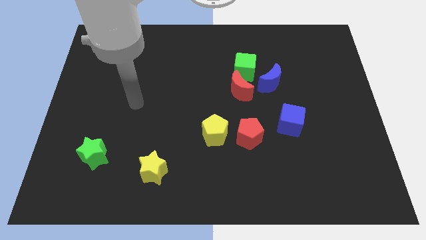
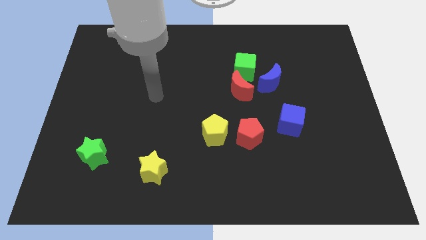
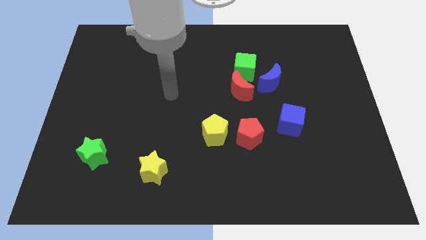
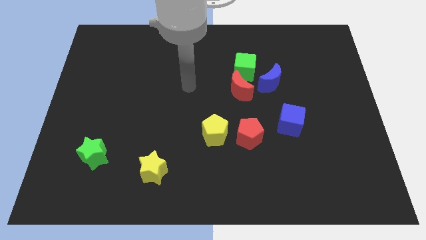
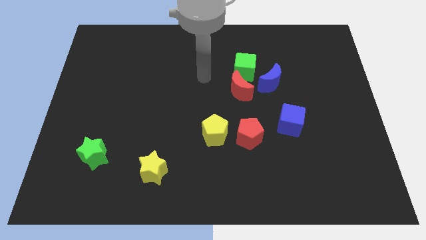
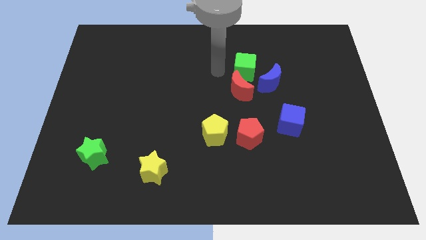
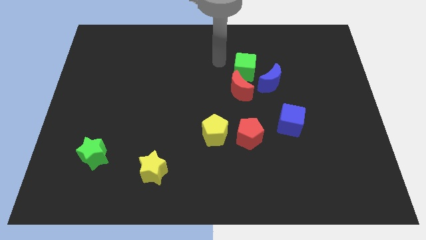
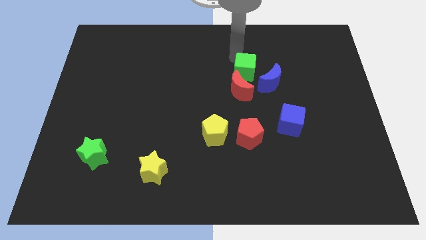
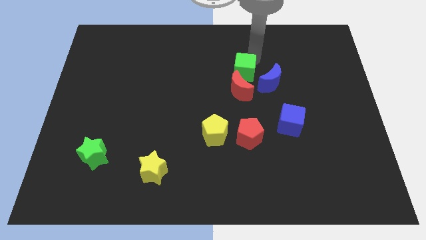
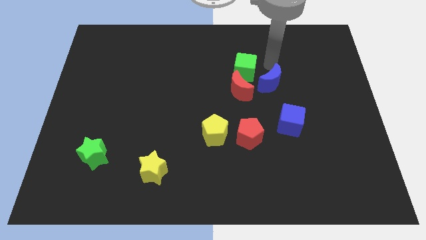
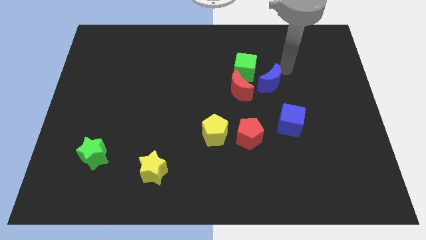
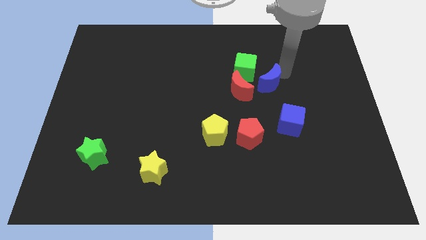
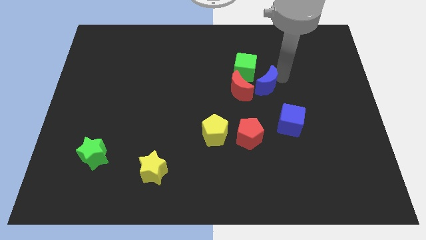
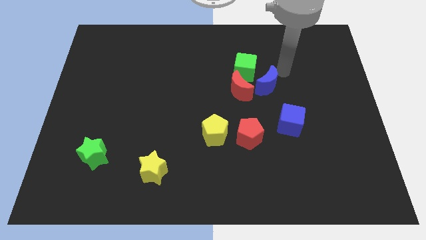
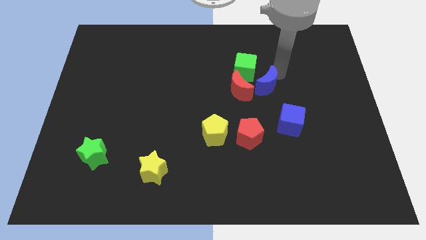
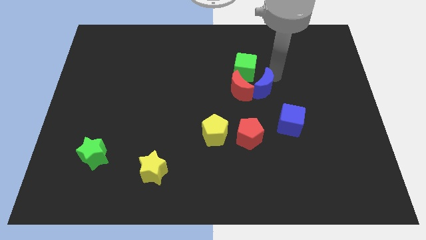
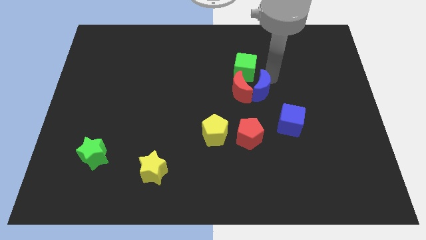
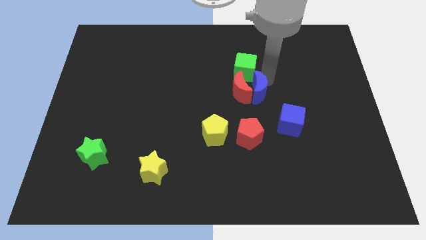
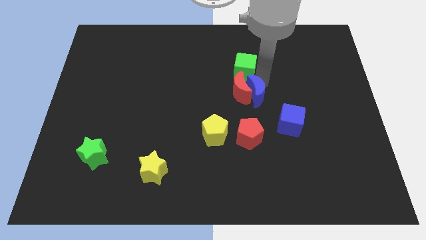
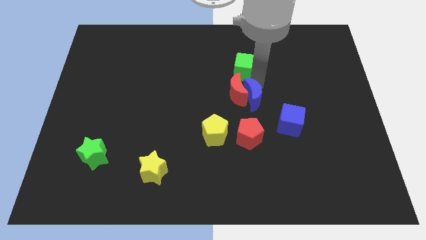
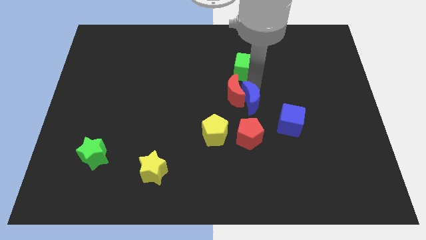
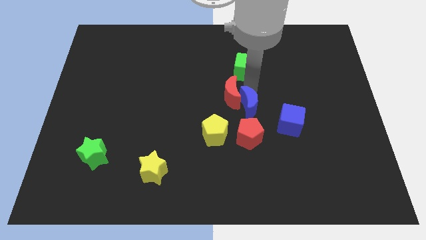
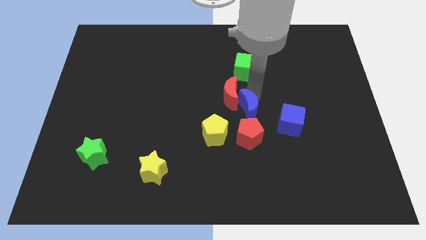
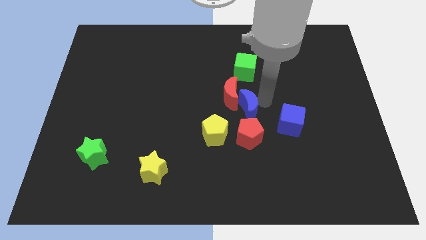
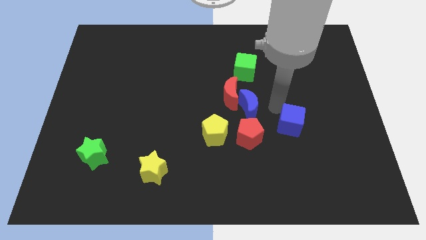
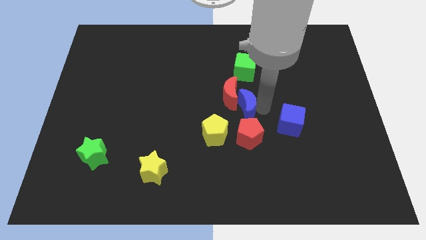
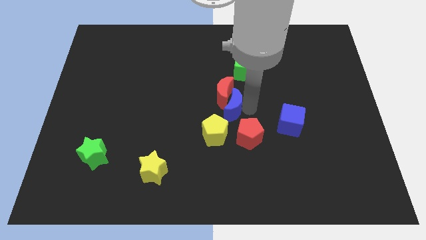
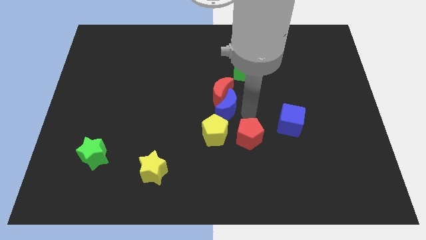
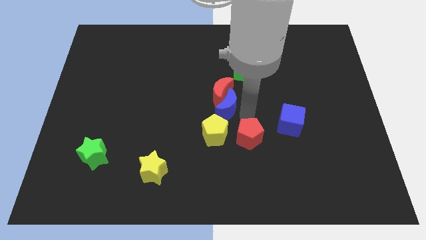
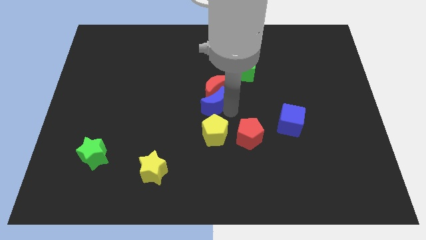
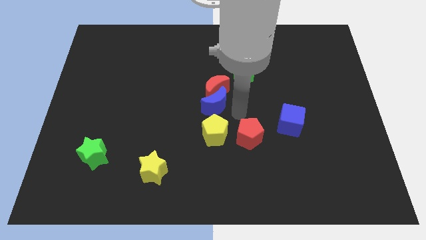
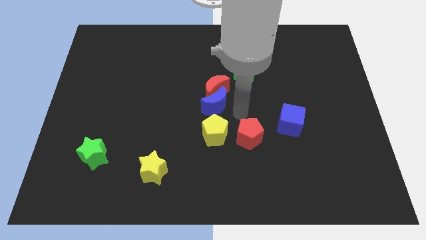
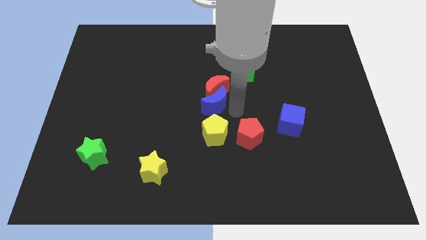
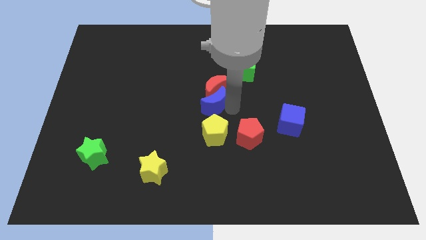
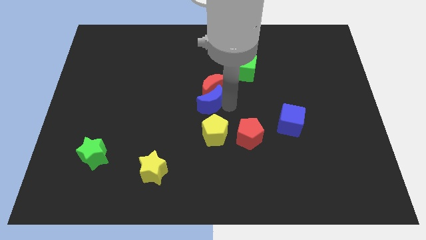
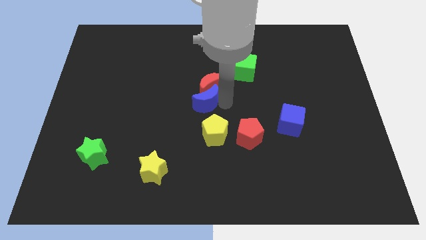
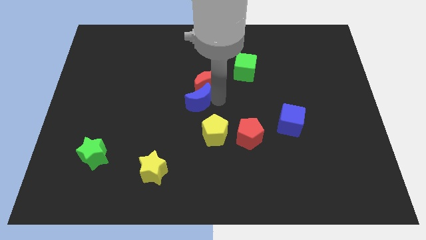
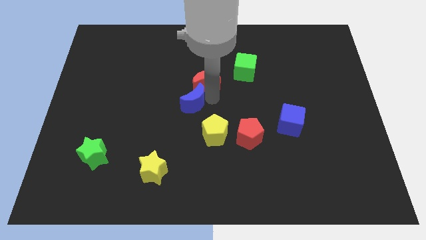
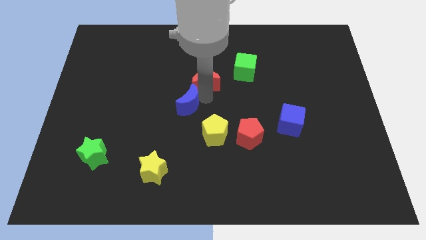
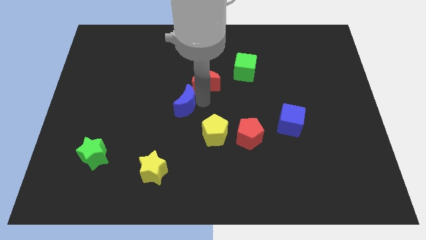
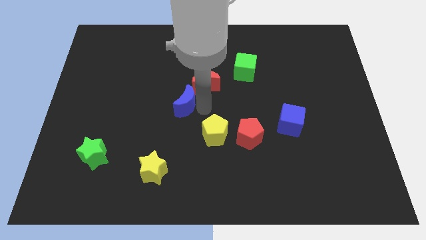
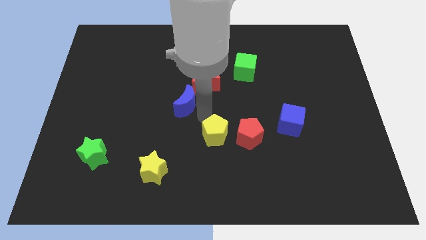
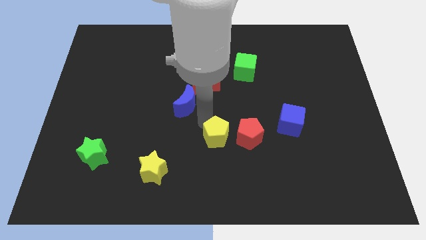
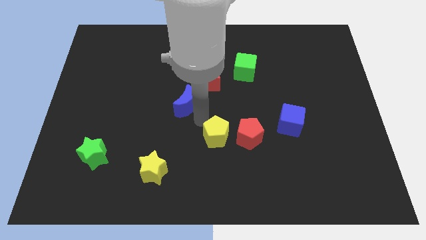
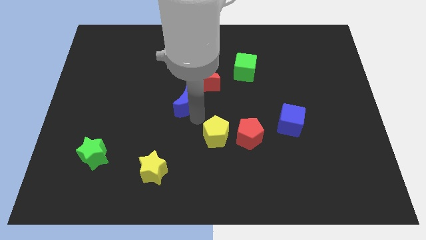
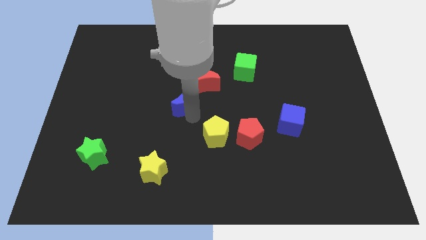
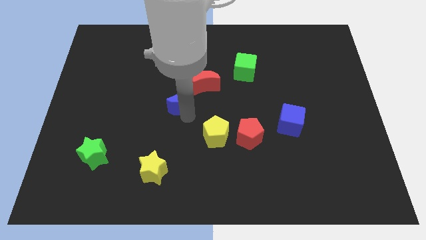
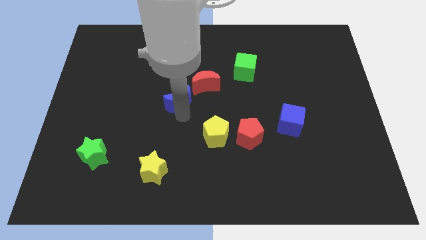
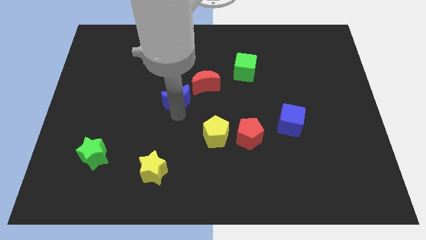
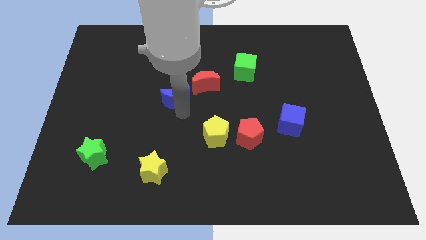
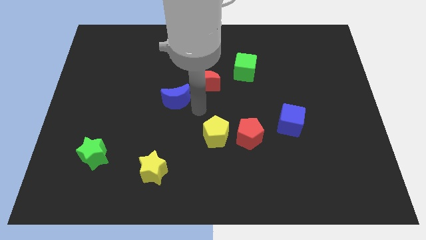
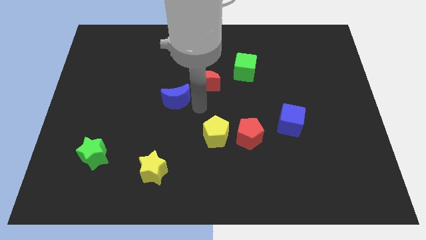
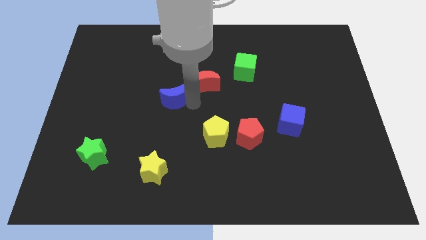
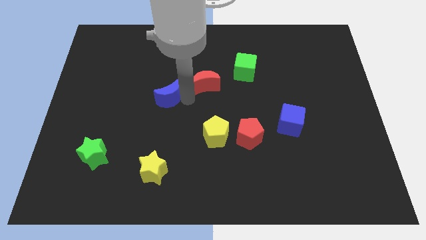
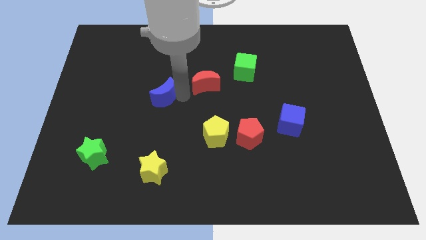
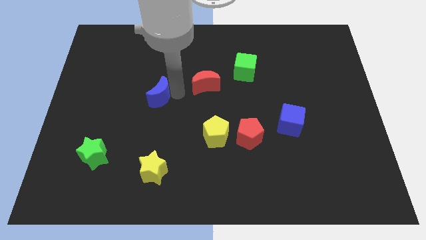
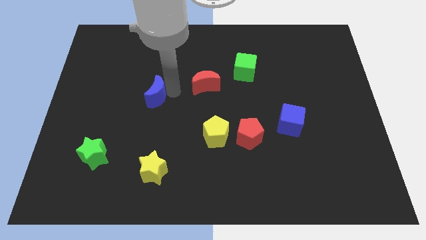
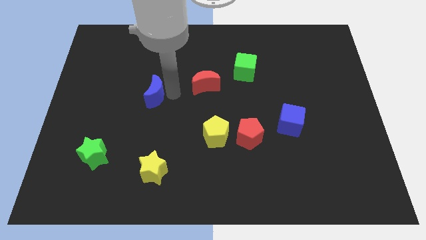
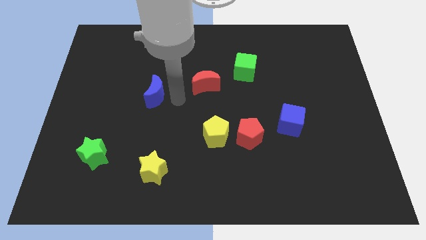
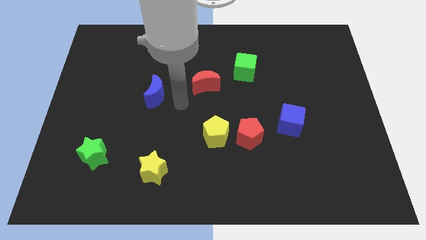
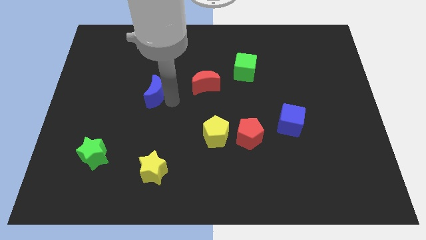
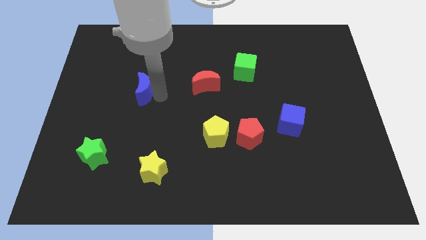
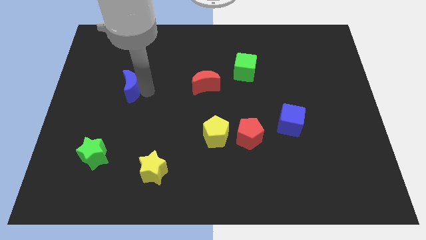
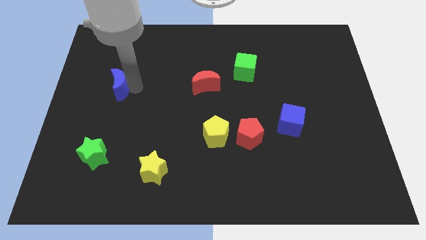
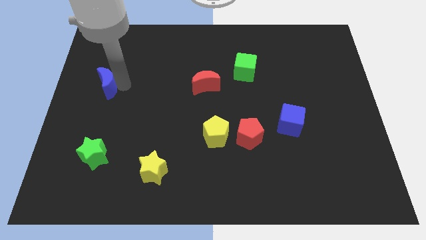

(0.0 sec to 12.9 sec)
slide the blue moon to the left side
